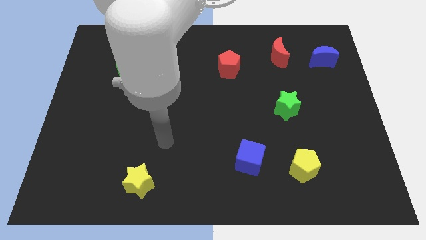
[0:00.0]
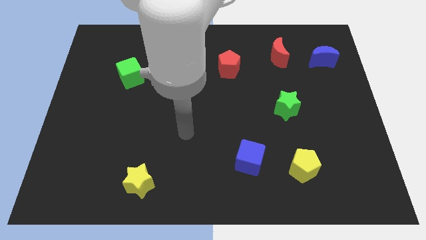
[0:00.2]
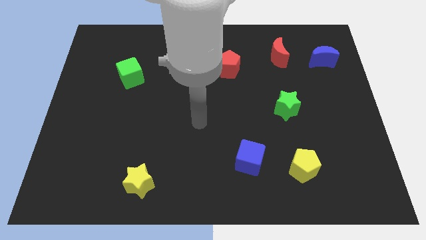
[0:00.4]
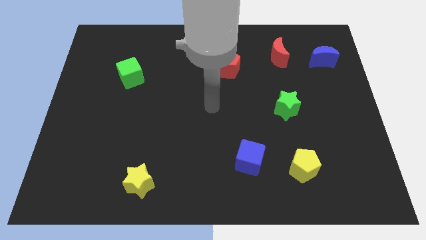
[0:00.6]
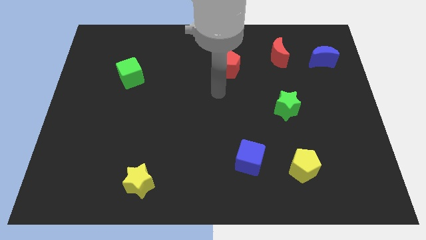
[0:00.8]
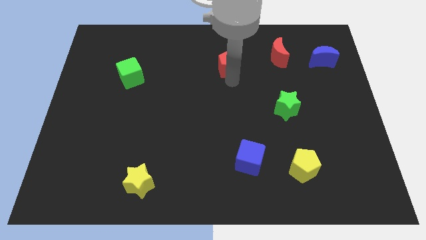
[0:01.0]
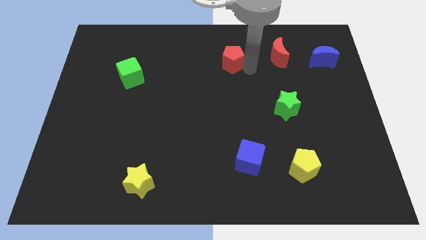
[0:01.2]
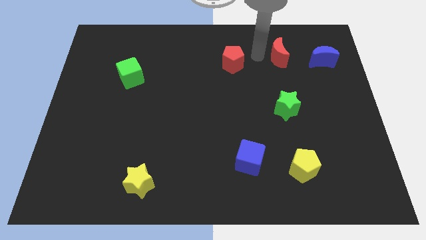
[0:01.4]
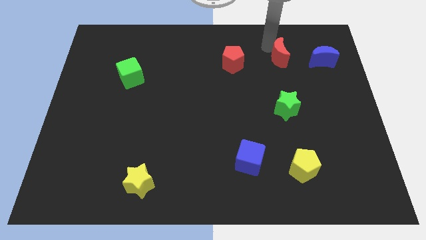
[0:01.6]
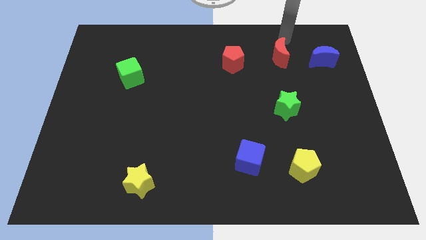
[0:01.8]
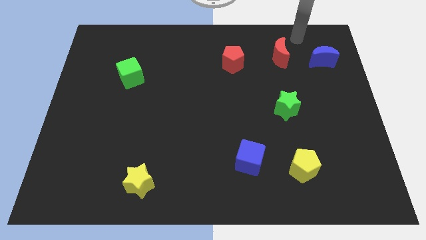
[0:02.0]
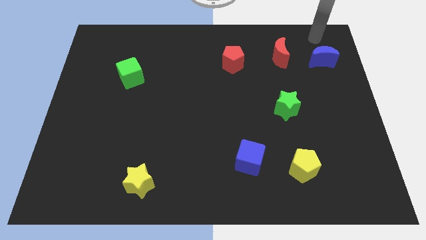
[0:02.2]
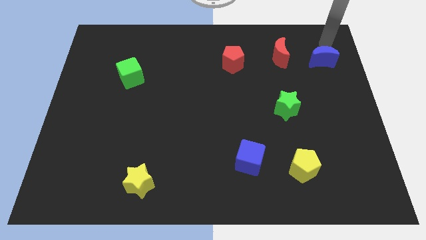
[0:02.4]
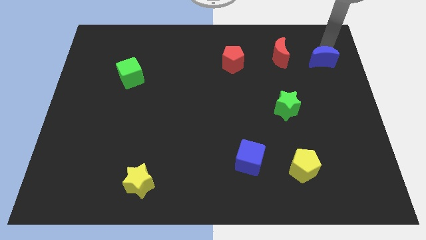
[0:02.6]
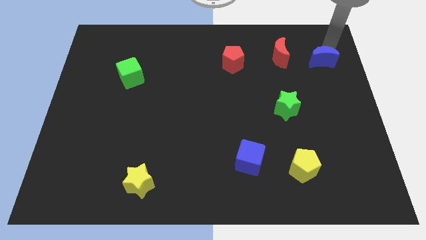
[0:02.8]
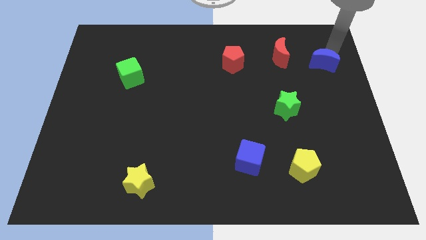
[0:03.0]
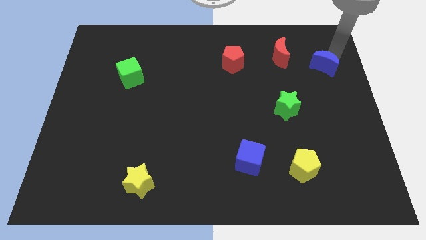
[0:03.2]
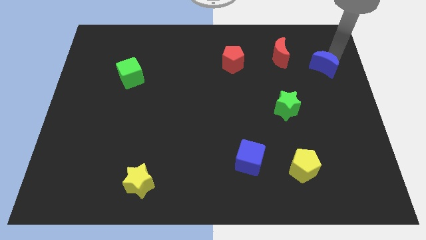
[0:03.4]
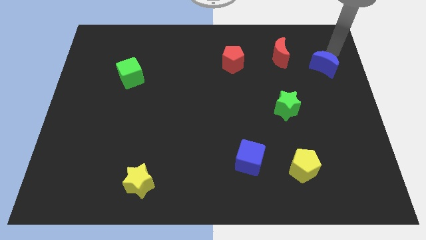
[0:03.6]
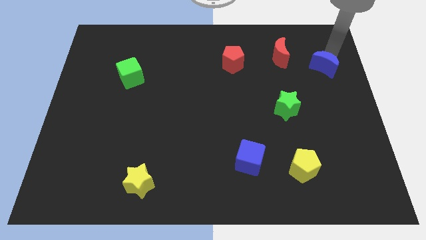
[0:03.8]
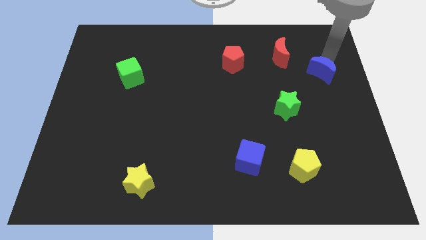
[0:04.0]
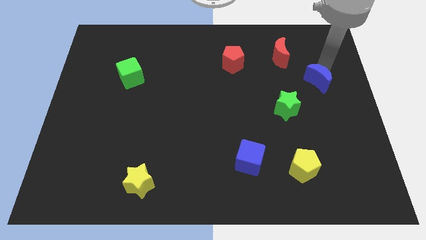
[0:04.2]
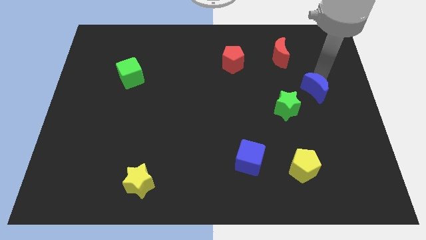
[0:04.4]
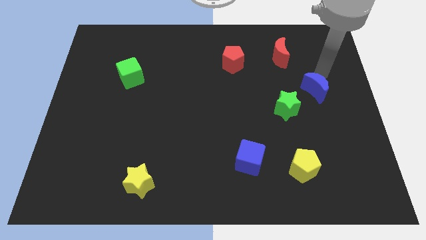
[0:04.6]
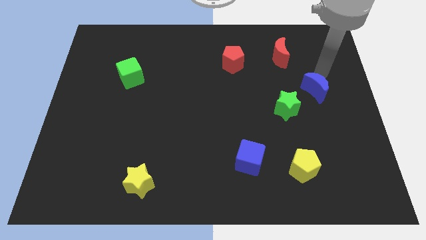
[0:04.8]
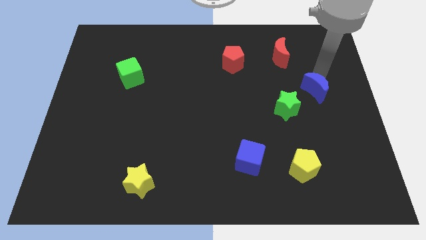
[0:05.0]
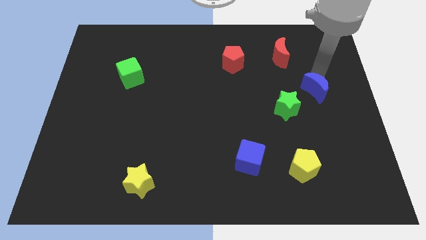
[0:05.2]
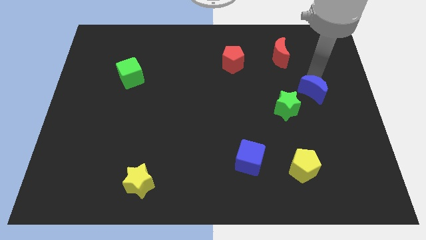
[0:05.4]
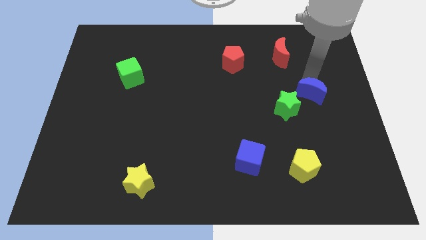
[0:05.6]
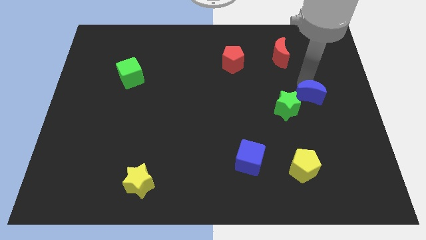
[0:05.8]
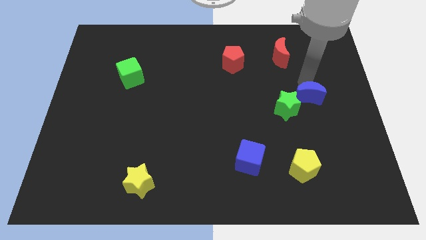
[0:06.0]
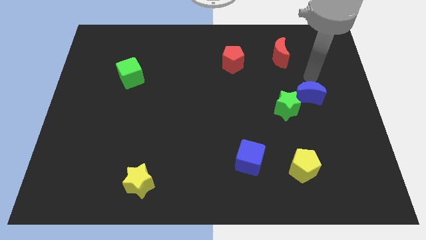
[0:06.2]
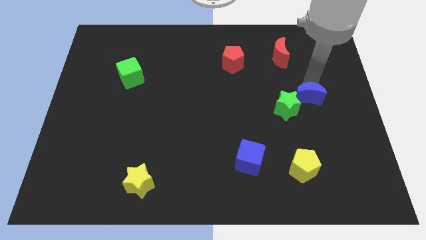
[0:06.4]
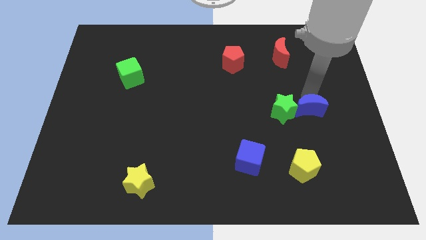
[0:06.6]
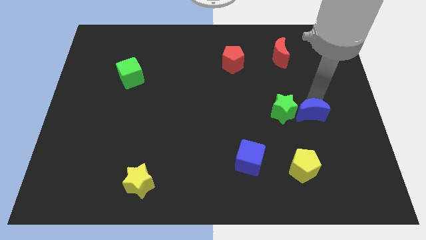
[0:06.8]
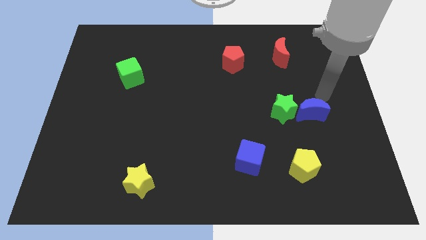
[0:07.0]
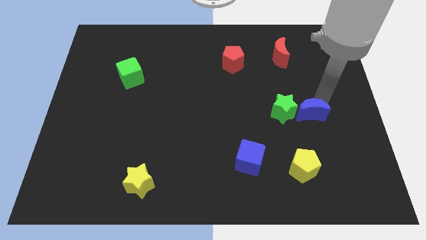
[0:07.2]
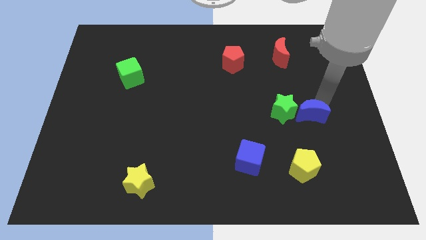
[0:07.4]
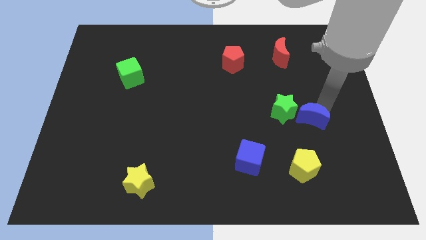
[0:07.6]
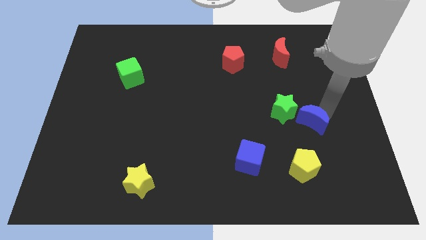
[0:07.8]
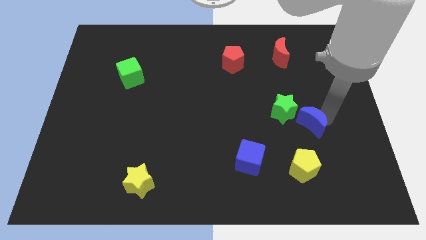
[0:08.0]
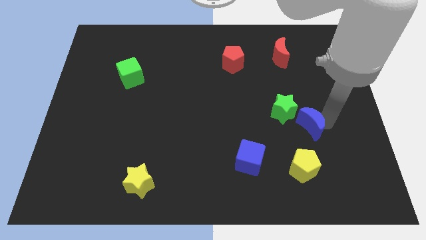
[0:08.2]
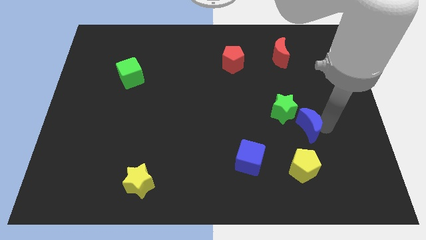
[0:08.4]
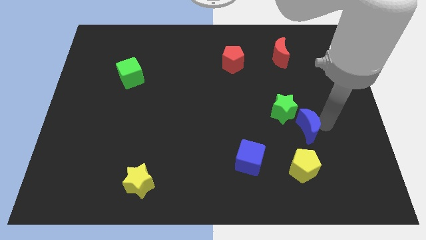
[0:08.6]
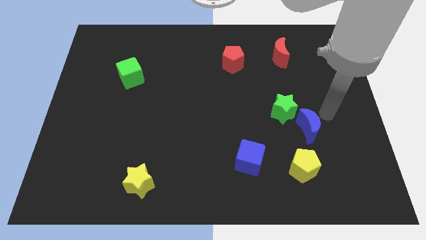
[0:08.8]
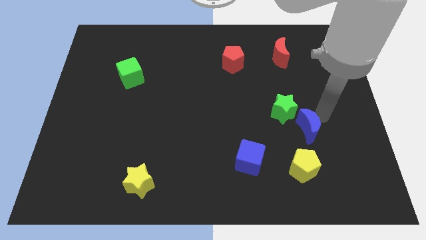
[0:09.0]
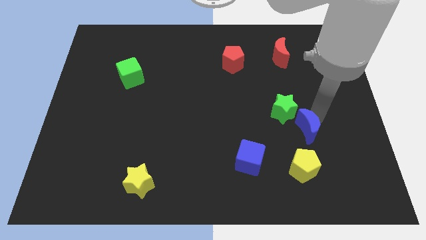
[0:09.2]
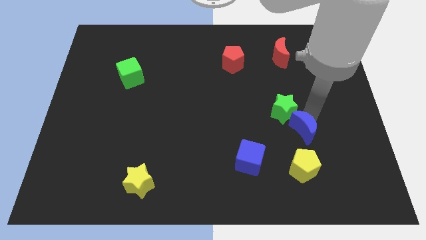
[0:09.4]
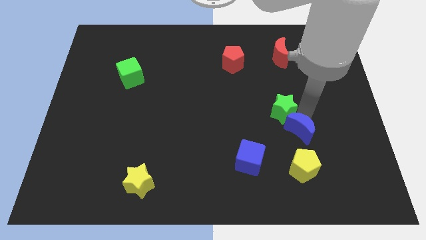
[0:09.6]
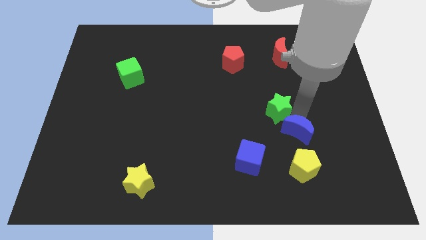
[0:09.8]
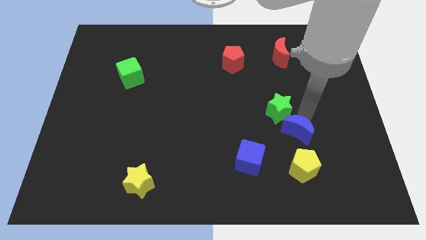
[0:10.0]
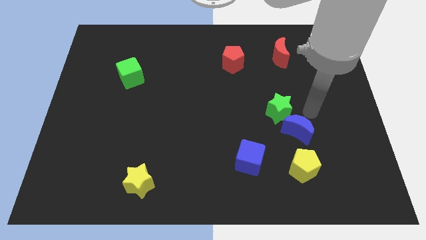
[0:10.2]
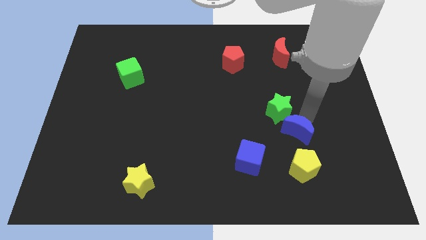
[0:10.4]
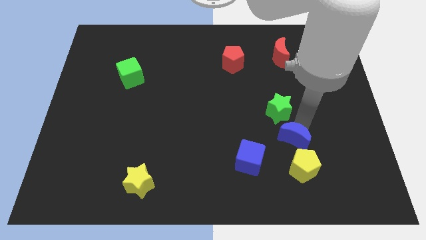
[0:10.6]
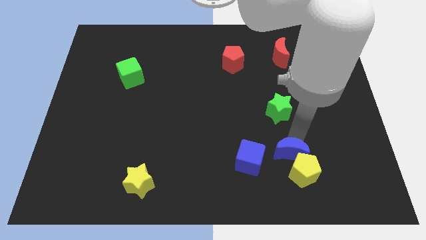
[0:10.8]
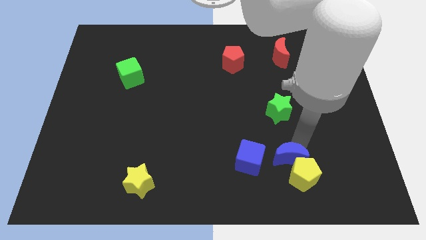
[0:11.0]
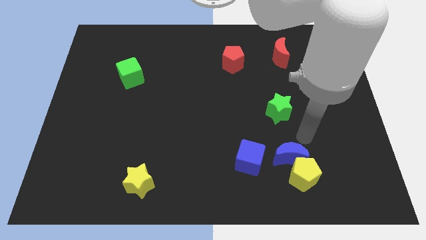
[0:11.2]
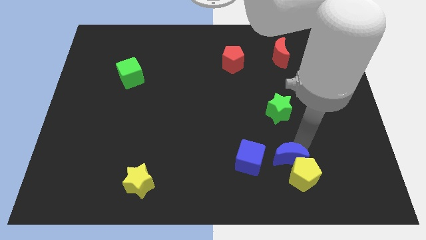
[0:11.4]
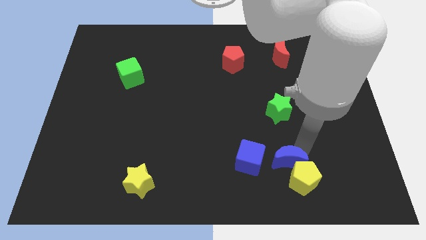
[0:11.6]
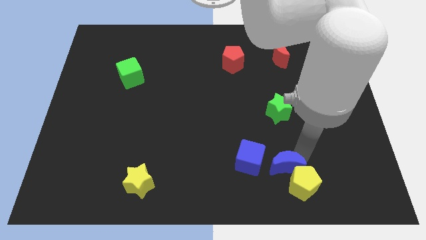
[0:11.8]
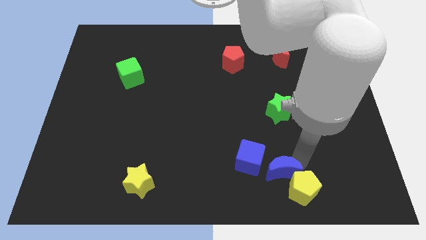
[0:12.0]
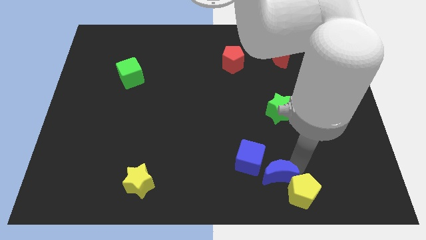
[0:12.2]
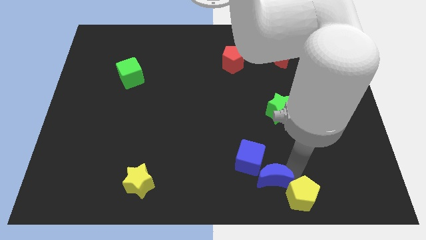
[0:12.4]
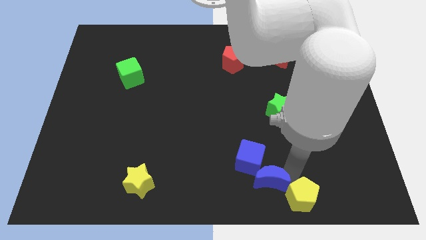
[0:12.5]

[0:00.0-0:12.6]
put the blue moon to the bottom

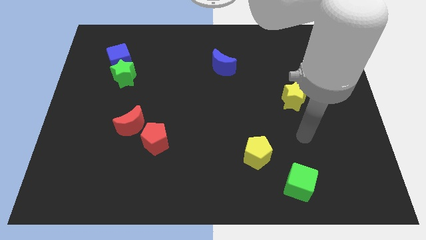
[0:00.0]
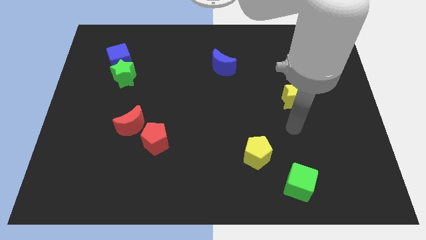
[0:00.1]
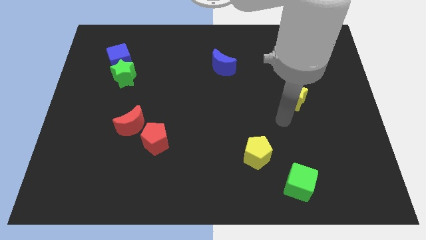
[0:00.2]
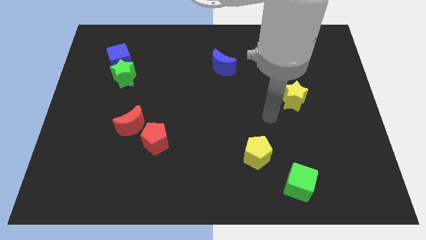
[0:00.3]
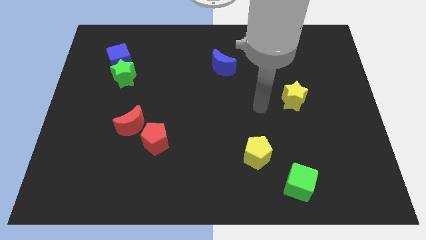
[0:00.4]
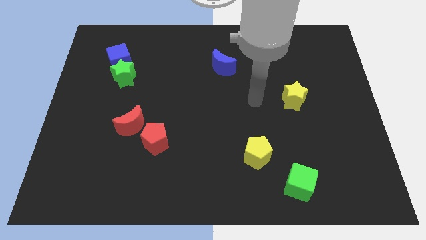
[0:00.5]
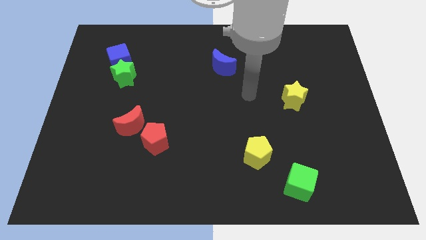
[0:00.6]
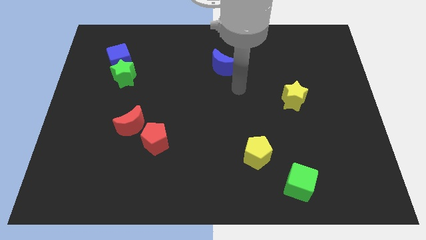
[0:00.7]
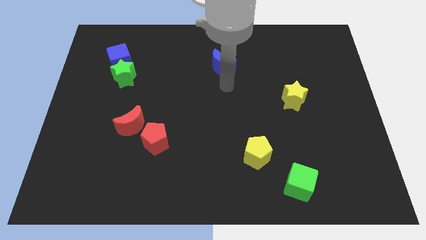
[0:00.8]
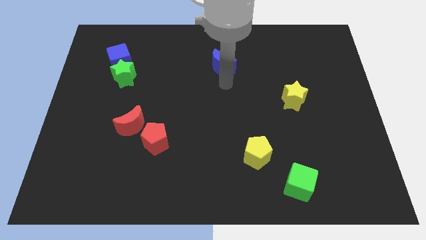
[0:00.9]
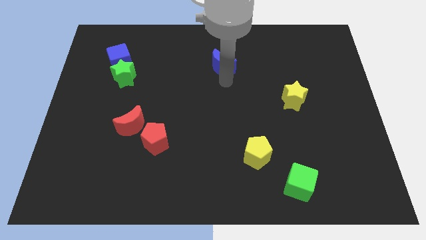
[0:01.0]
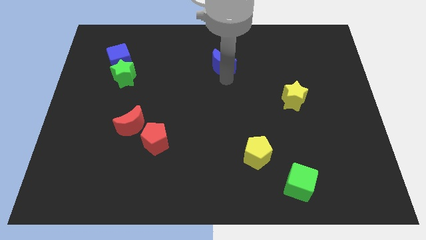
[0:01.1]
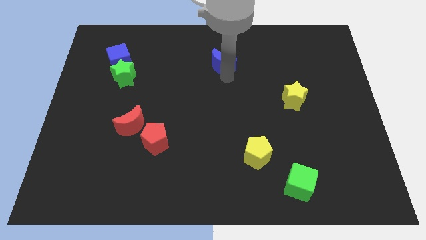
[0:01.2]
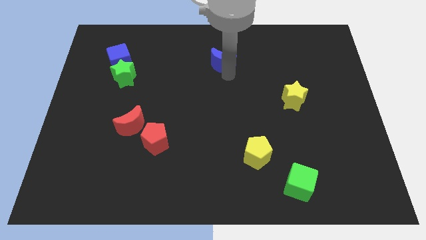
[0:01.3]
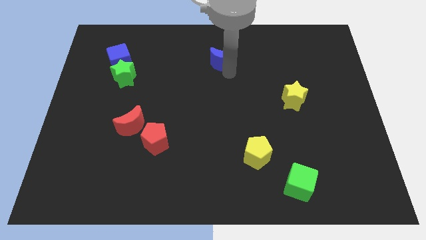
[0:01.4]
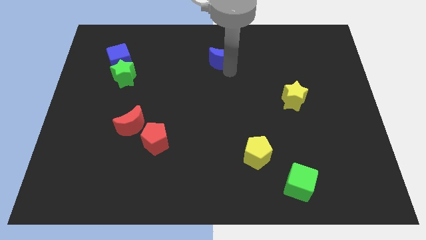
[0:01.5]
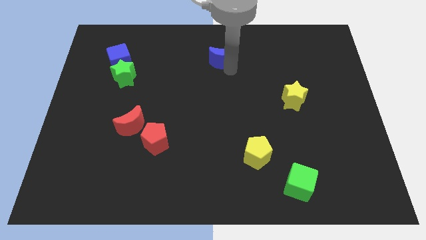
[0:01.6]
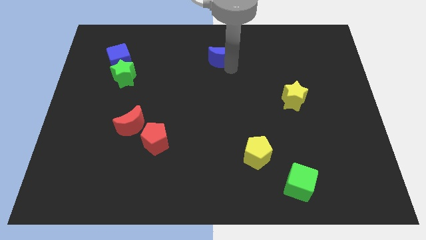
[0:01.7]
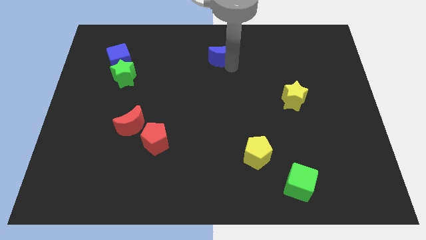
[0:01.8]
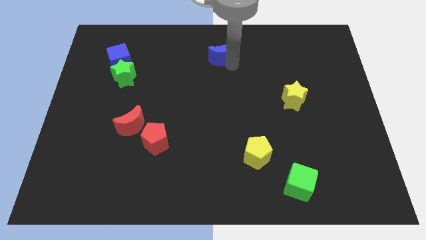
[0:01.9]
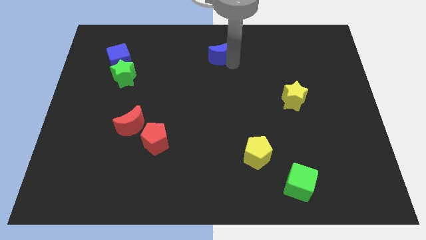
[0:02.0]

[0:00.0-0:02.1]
put the blue moon to the top side
